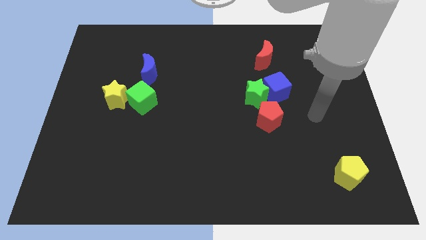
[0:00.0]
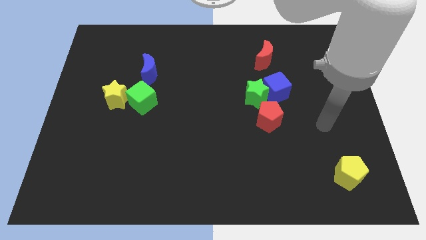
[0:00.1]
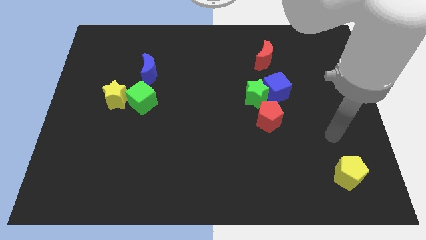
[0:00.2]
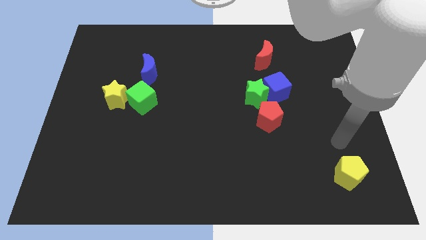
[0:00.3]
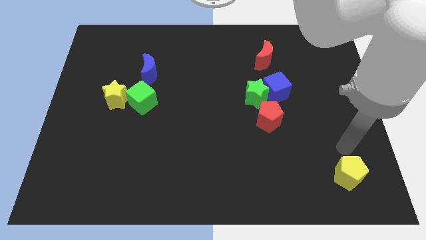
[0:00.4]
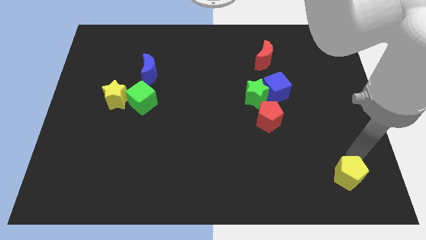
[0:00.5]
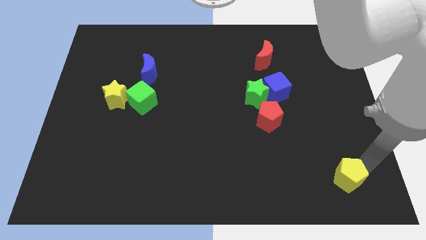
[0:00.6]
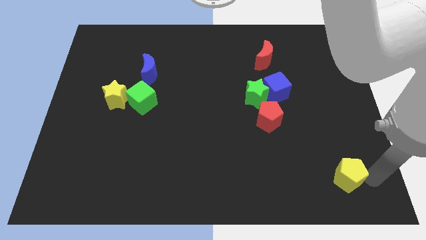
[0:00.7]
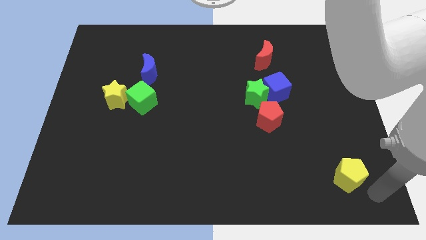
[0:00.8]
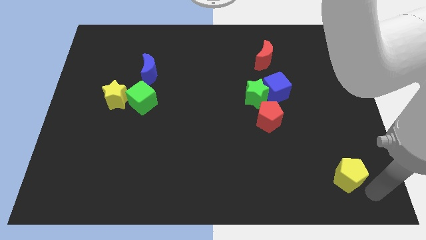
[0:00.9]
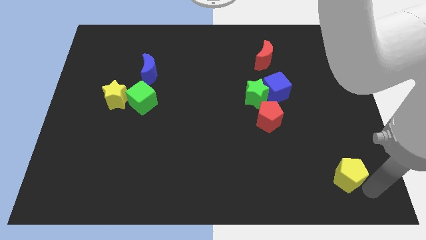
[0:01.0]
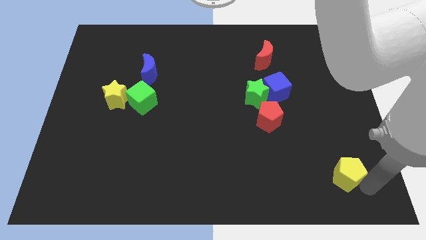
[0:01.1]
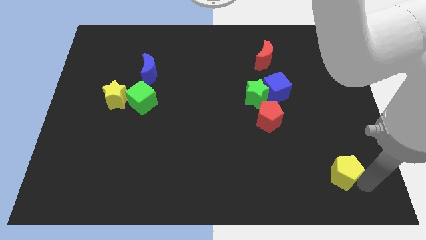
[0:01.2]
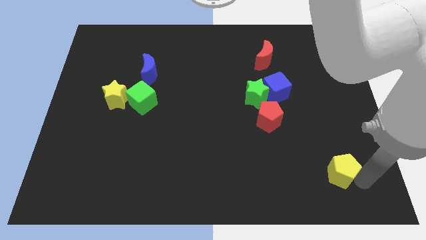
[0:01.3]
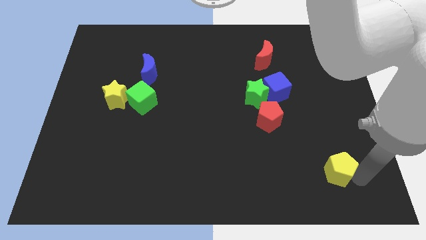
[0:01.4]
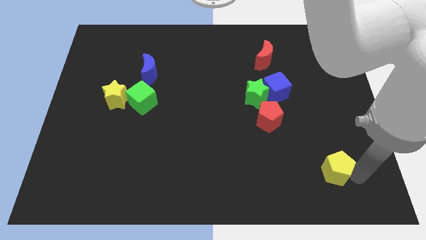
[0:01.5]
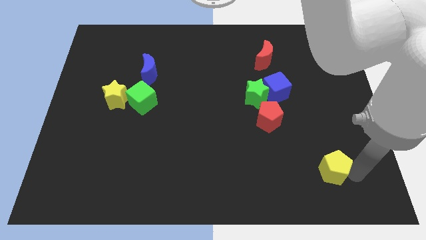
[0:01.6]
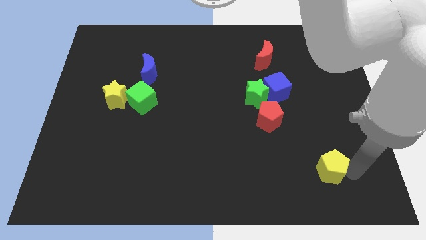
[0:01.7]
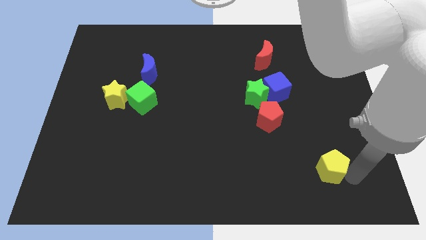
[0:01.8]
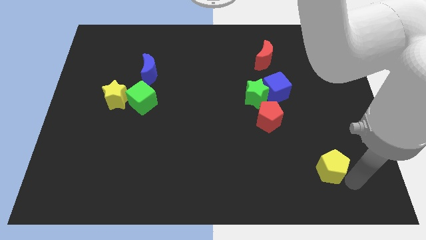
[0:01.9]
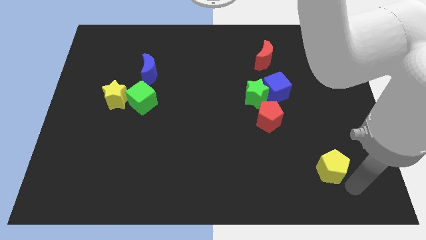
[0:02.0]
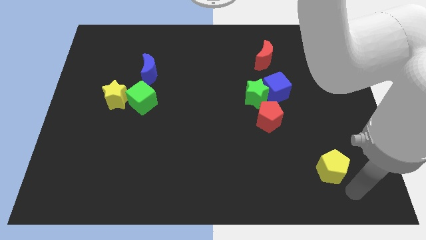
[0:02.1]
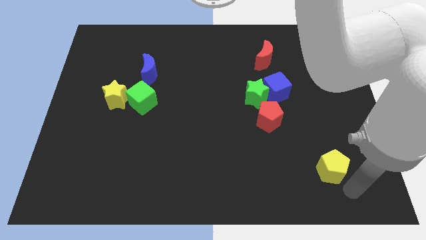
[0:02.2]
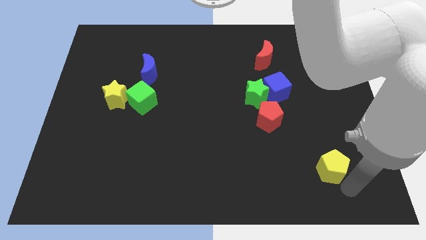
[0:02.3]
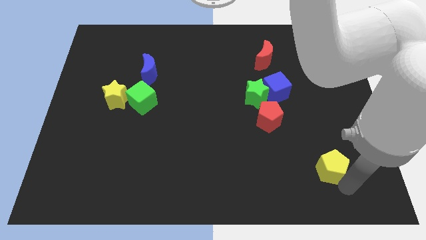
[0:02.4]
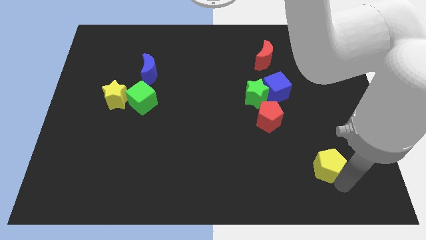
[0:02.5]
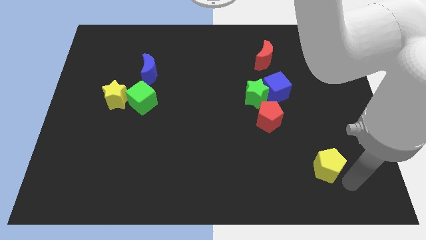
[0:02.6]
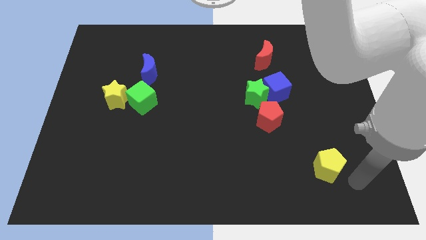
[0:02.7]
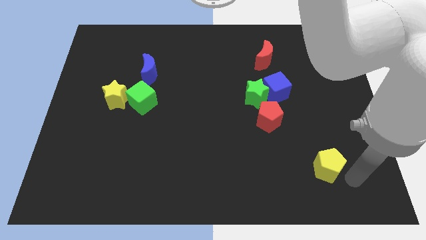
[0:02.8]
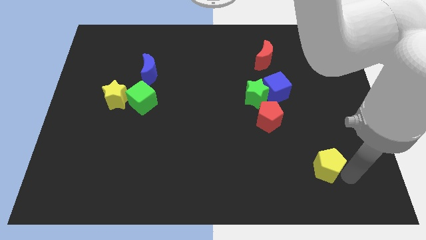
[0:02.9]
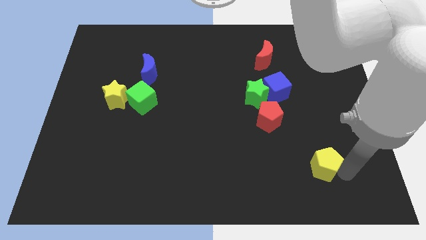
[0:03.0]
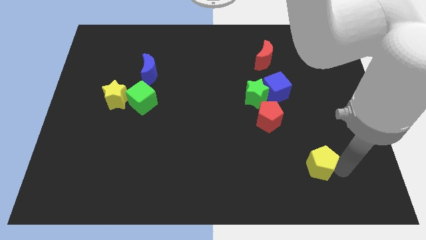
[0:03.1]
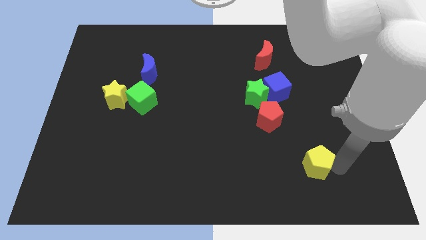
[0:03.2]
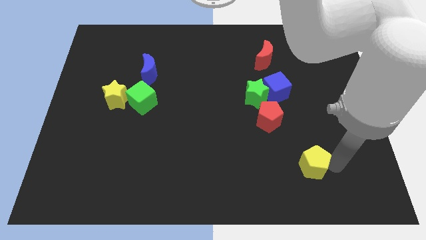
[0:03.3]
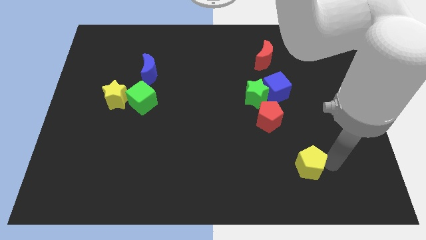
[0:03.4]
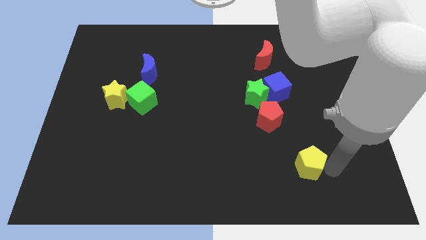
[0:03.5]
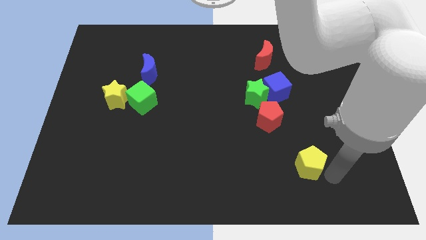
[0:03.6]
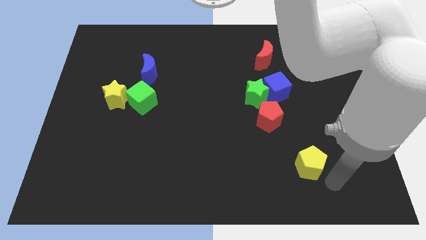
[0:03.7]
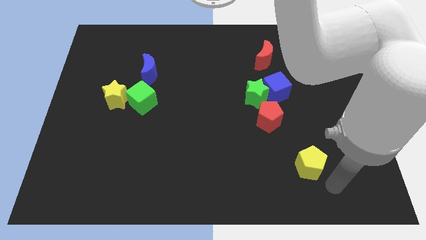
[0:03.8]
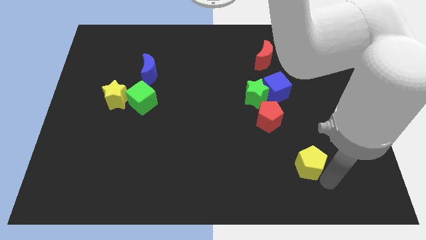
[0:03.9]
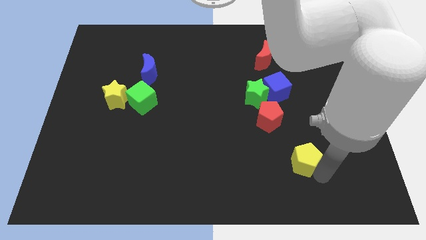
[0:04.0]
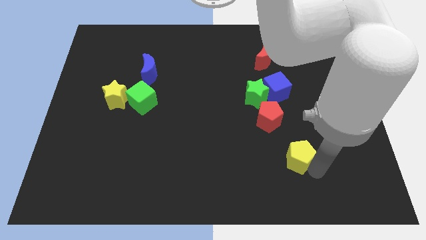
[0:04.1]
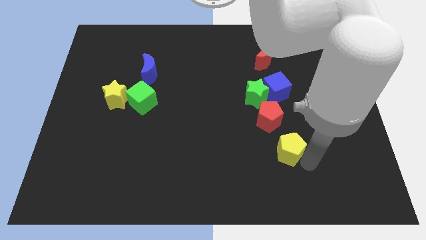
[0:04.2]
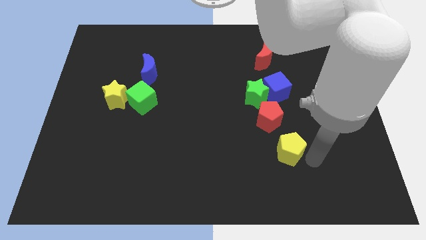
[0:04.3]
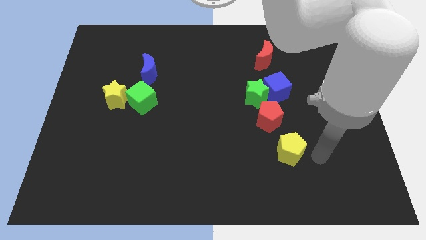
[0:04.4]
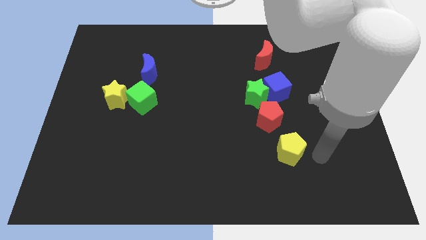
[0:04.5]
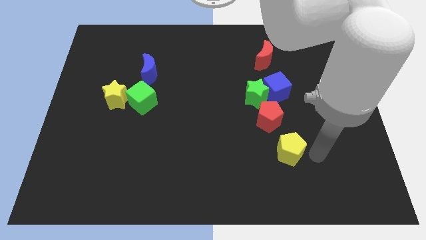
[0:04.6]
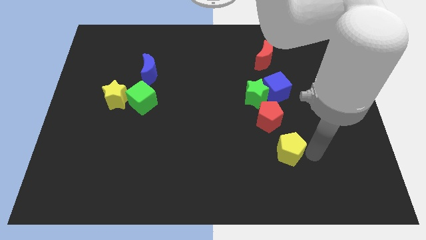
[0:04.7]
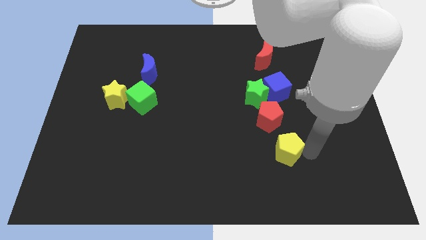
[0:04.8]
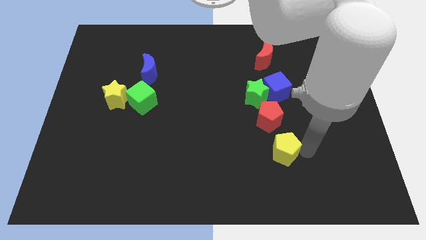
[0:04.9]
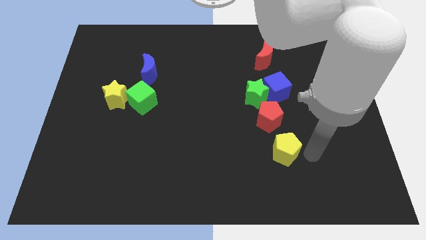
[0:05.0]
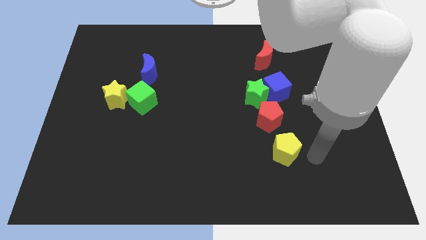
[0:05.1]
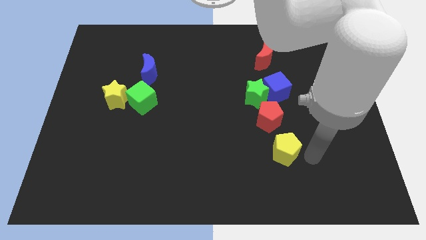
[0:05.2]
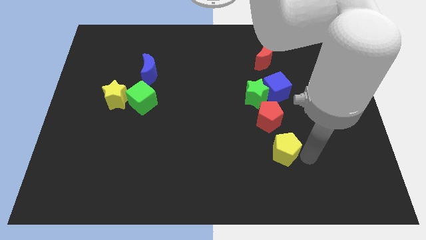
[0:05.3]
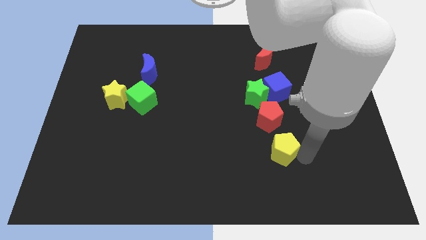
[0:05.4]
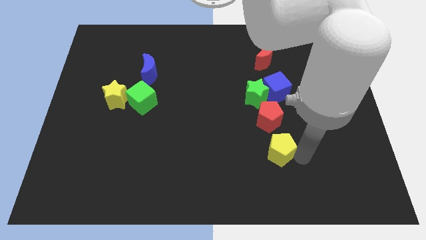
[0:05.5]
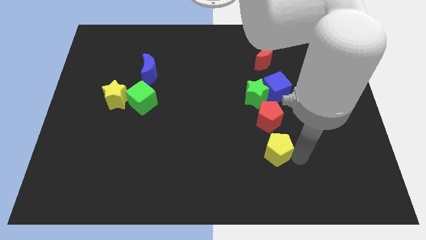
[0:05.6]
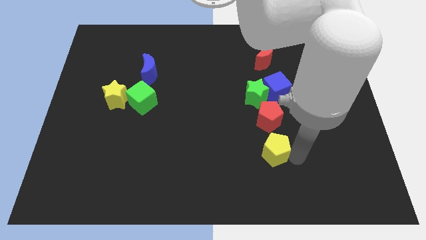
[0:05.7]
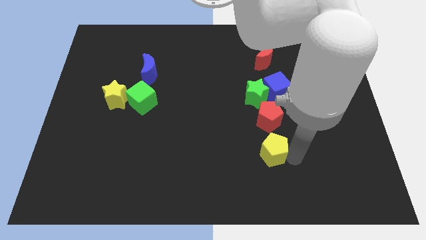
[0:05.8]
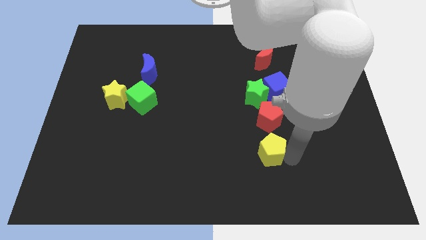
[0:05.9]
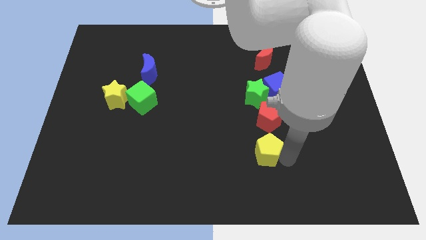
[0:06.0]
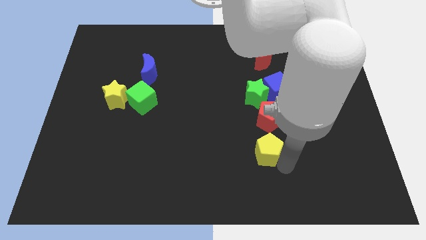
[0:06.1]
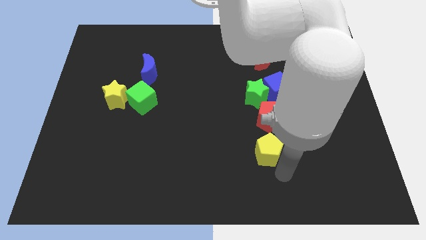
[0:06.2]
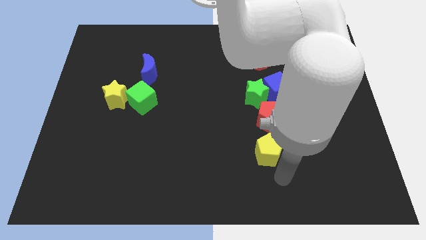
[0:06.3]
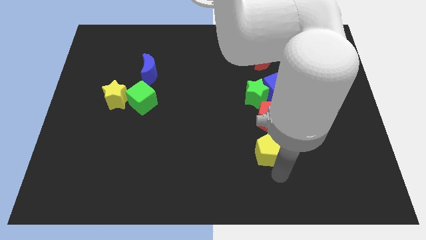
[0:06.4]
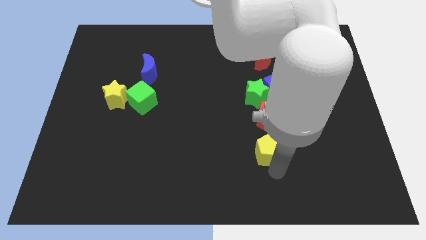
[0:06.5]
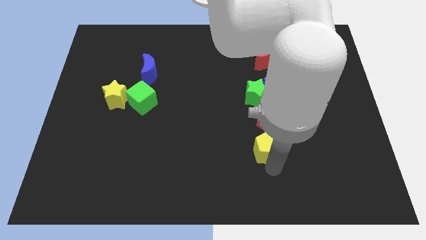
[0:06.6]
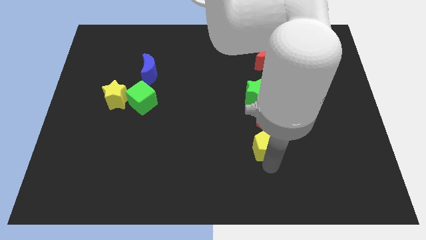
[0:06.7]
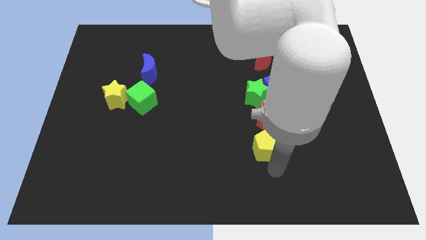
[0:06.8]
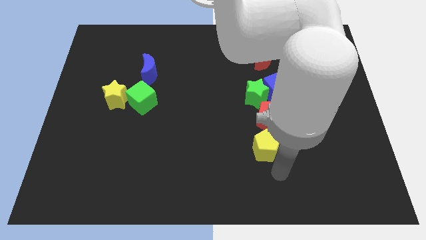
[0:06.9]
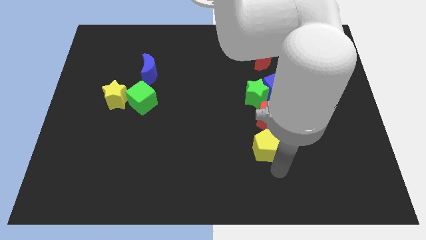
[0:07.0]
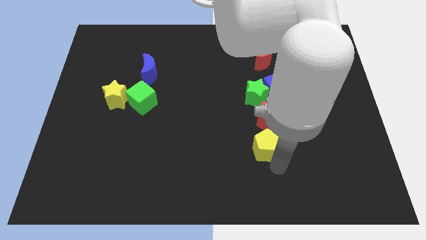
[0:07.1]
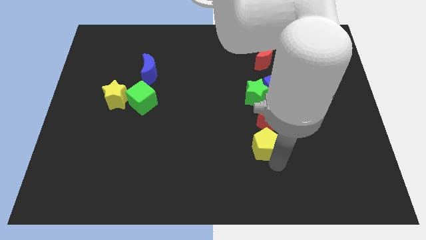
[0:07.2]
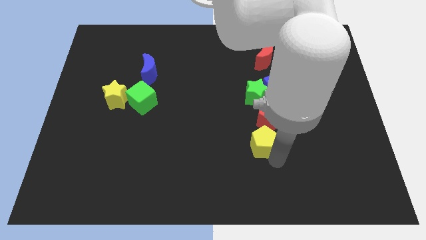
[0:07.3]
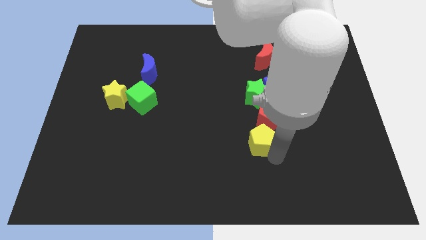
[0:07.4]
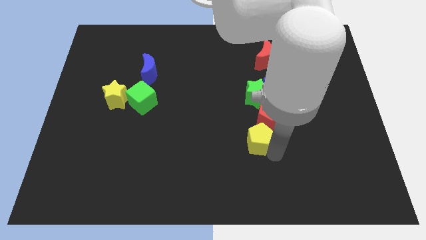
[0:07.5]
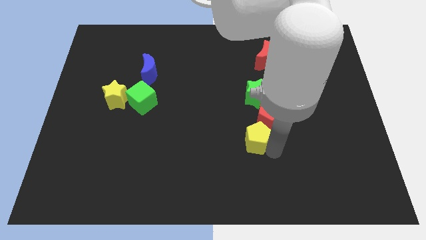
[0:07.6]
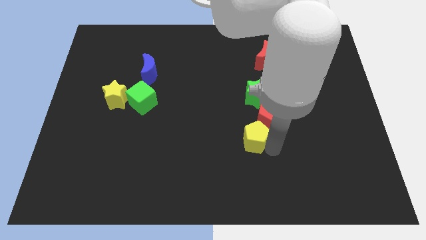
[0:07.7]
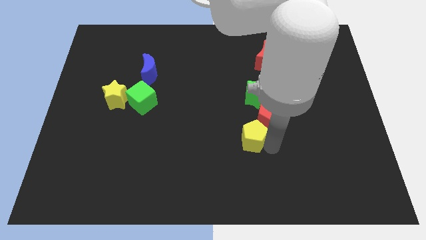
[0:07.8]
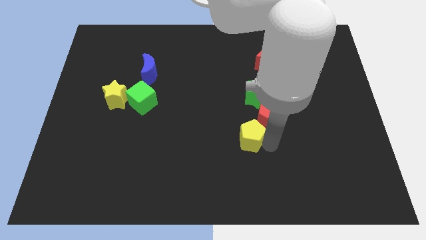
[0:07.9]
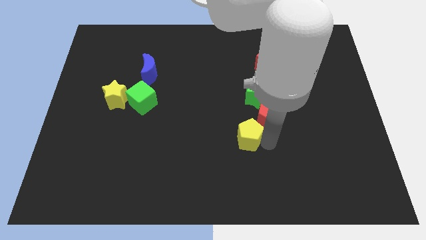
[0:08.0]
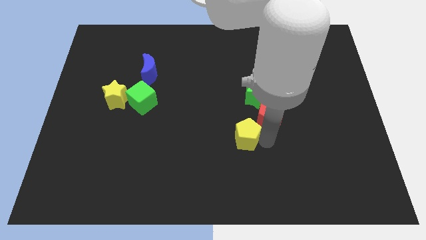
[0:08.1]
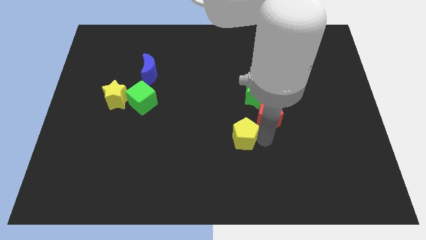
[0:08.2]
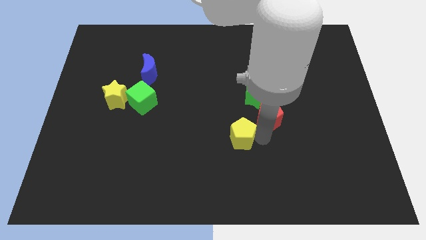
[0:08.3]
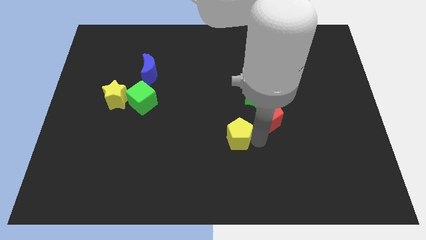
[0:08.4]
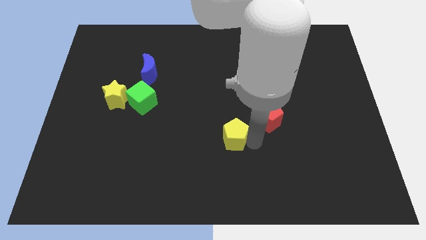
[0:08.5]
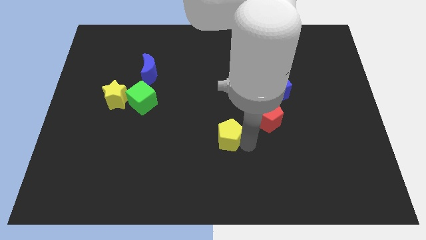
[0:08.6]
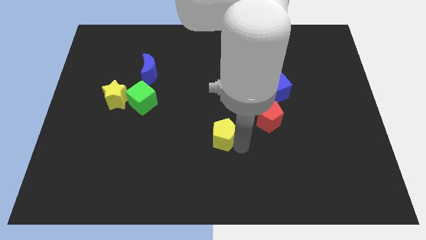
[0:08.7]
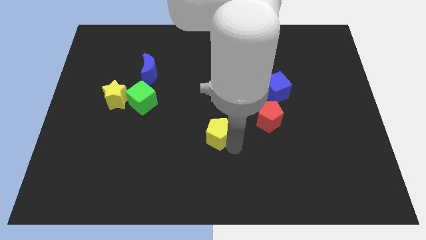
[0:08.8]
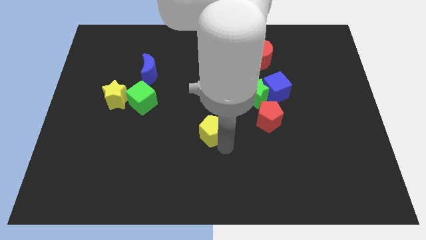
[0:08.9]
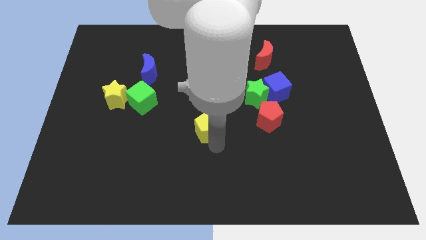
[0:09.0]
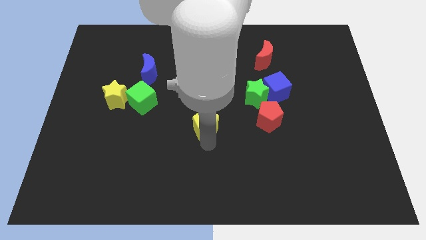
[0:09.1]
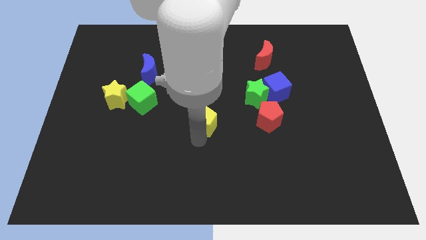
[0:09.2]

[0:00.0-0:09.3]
push the yellow pentagon up and to the left diagonally
